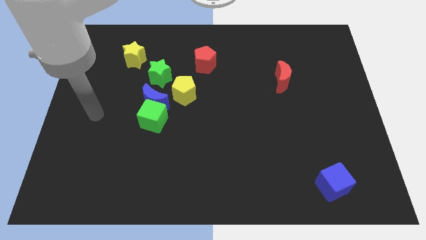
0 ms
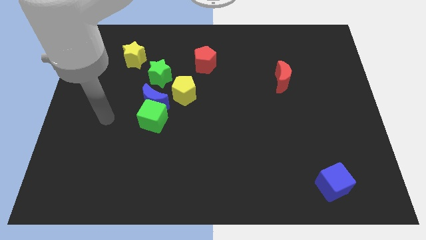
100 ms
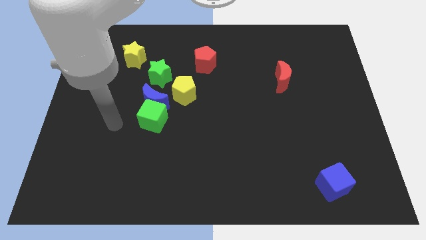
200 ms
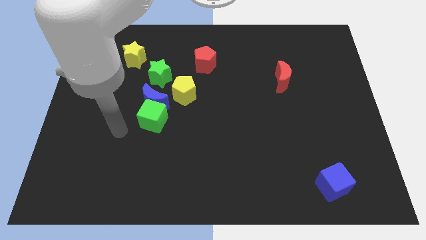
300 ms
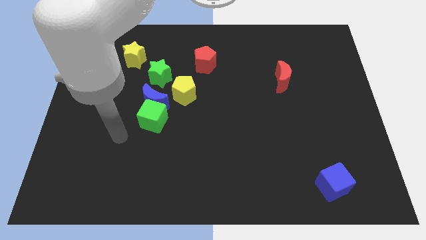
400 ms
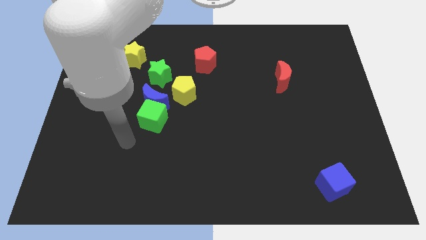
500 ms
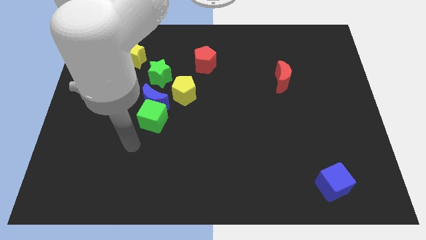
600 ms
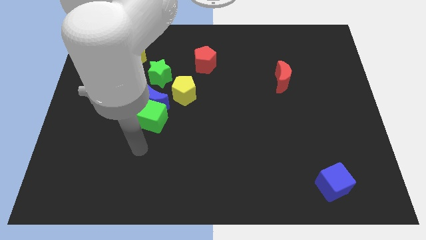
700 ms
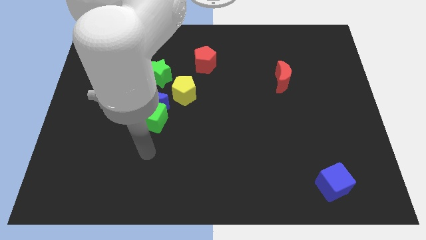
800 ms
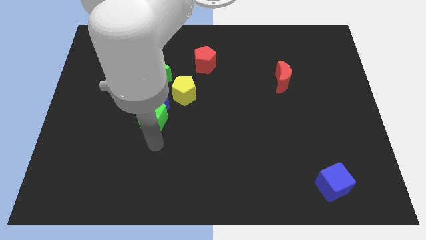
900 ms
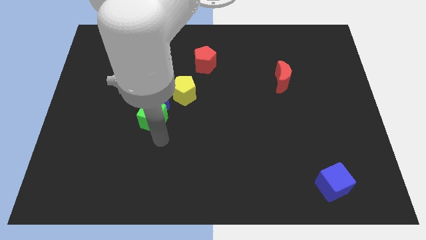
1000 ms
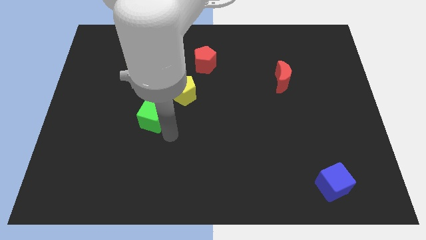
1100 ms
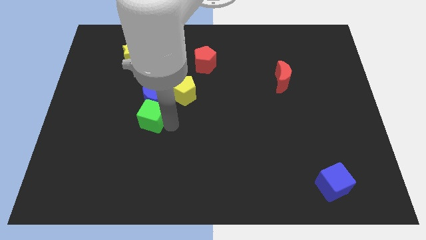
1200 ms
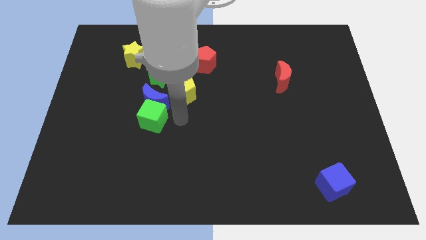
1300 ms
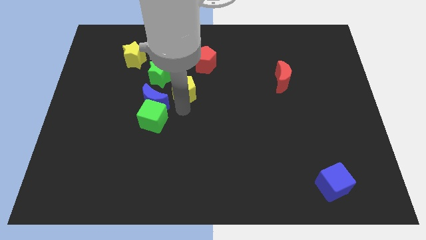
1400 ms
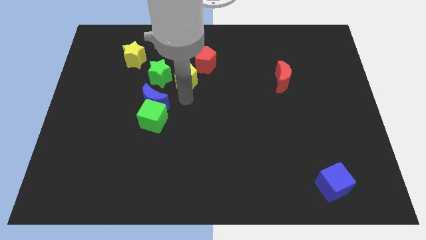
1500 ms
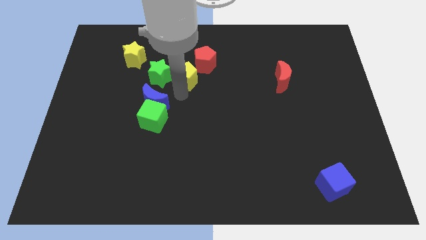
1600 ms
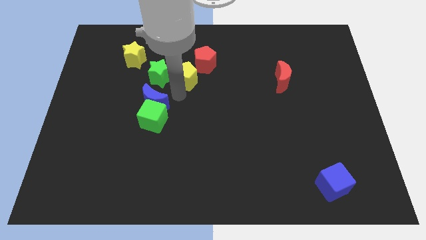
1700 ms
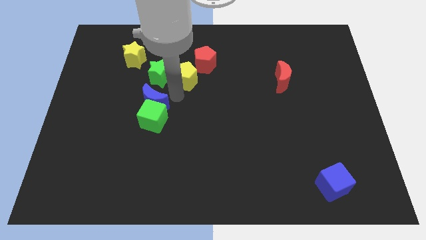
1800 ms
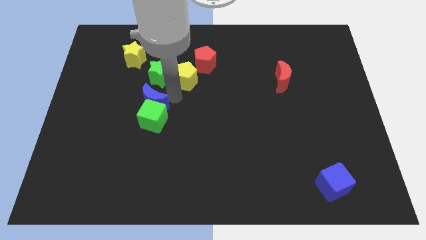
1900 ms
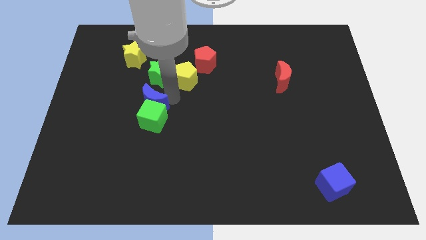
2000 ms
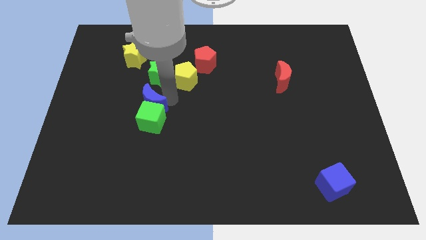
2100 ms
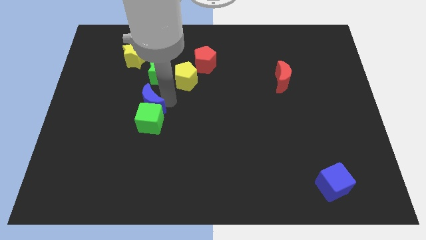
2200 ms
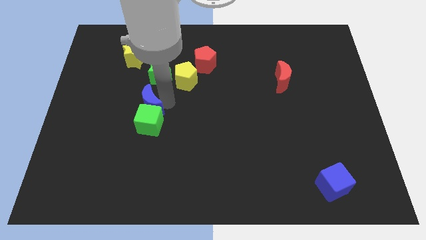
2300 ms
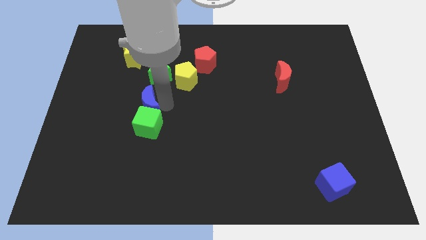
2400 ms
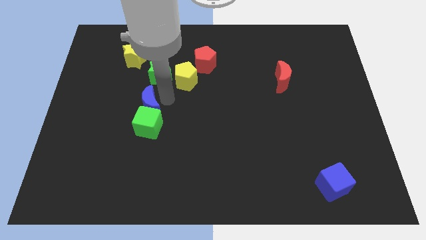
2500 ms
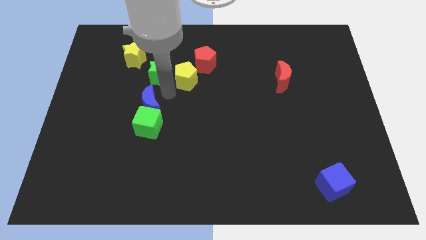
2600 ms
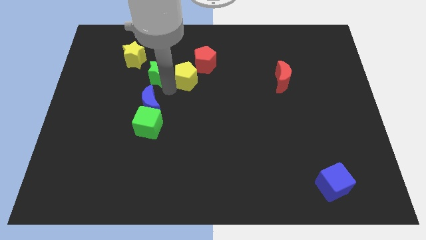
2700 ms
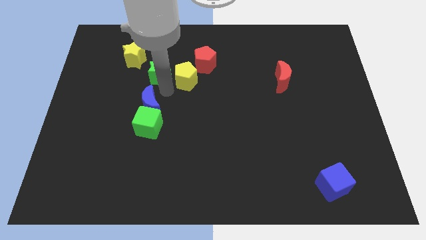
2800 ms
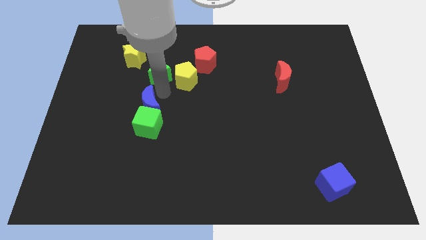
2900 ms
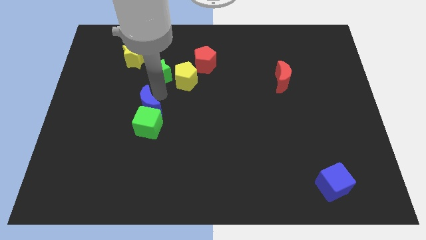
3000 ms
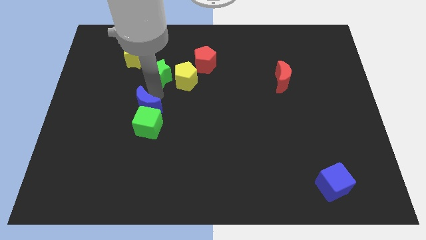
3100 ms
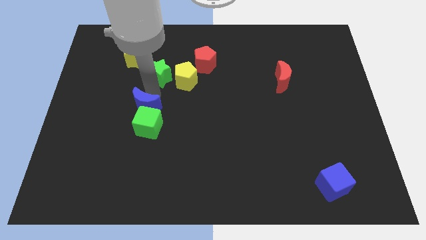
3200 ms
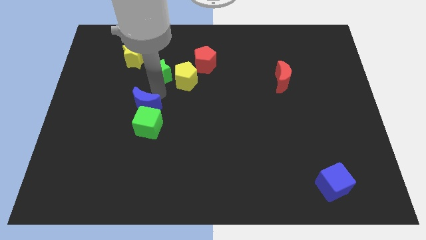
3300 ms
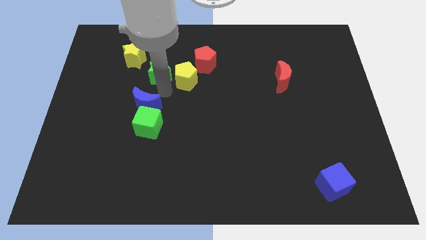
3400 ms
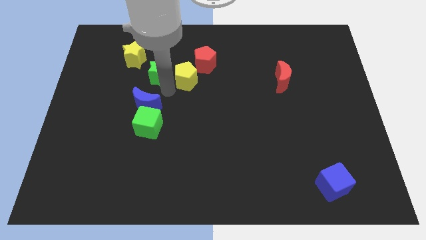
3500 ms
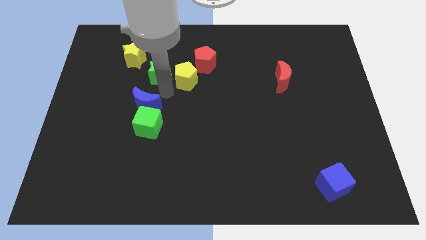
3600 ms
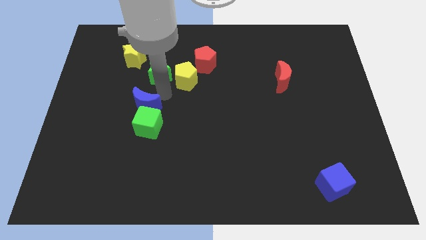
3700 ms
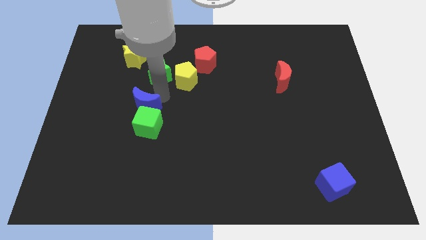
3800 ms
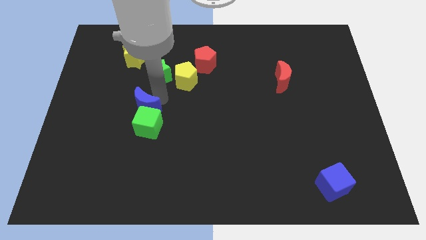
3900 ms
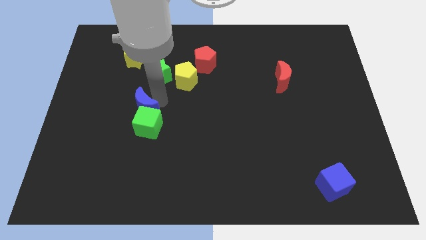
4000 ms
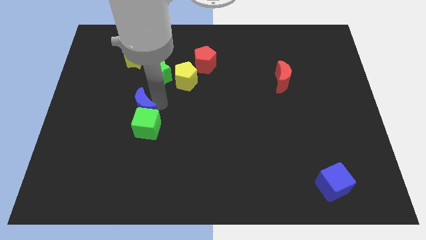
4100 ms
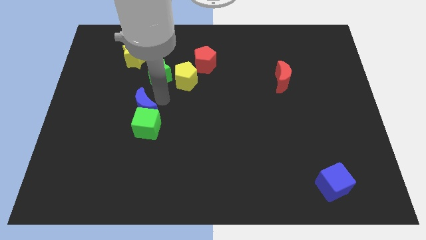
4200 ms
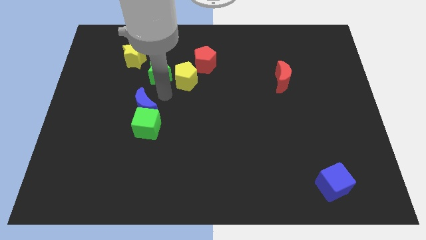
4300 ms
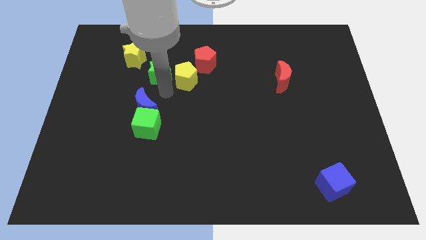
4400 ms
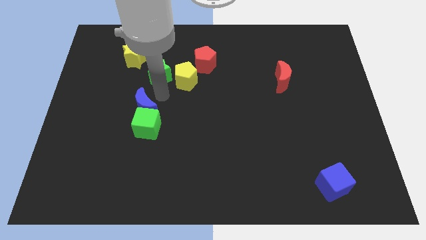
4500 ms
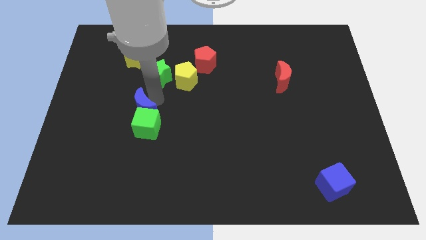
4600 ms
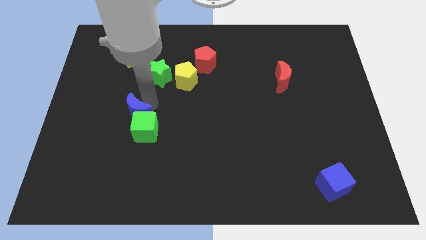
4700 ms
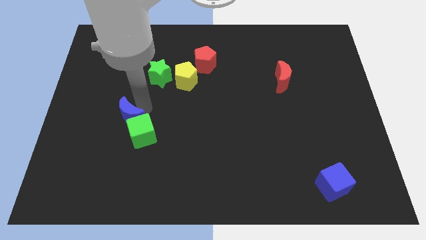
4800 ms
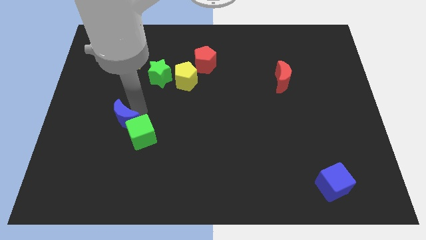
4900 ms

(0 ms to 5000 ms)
move the blue moon away from the green cube, yellow pentagon, and green star

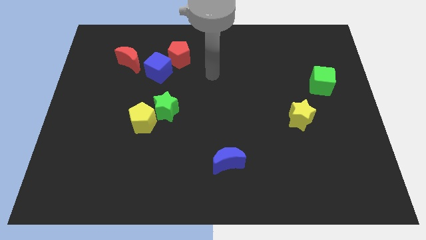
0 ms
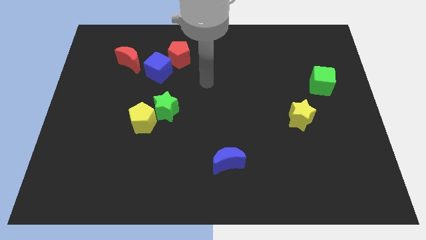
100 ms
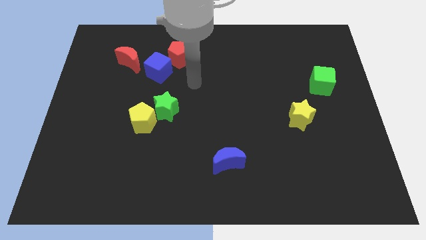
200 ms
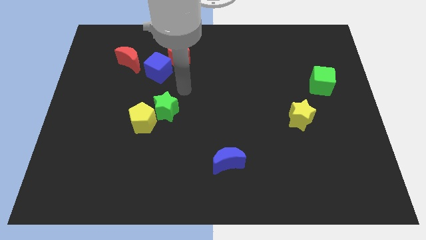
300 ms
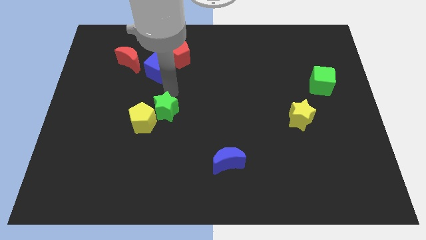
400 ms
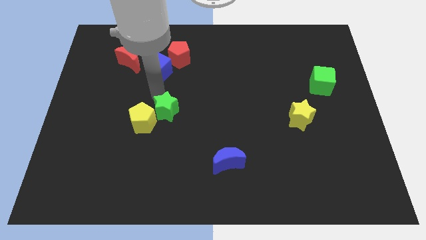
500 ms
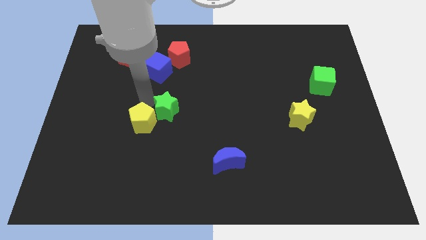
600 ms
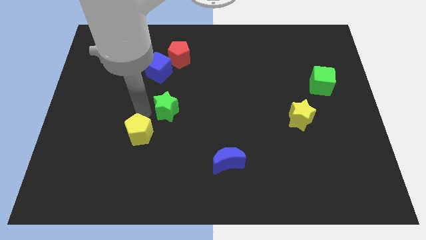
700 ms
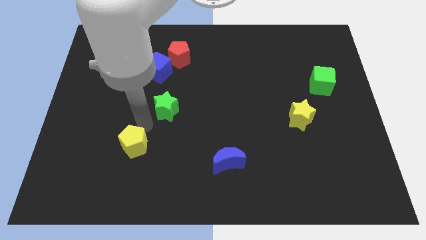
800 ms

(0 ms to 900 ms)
separate the green star from the yellow pentagon

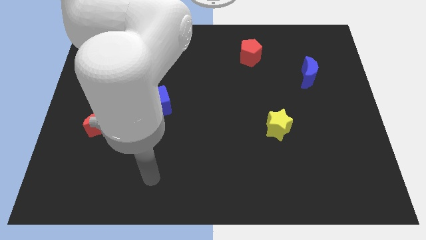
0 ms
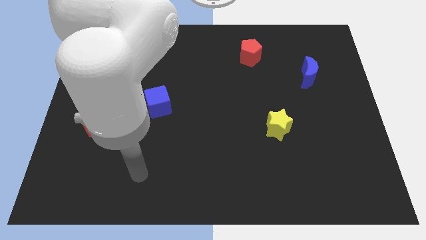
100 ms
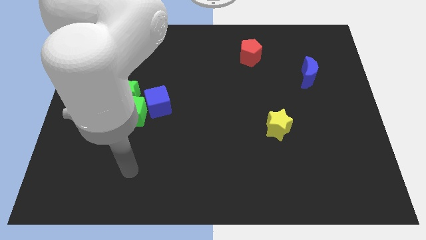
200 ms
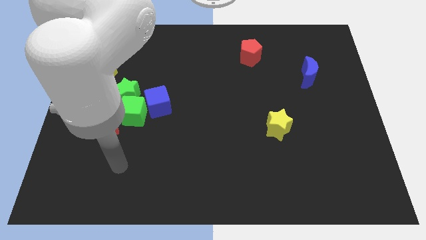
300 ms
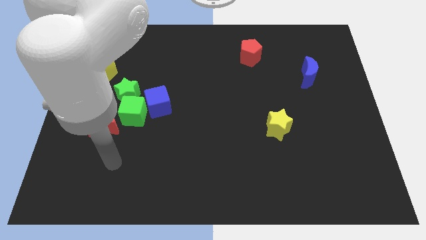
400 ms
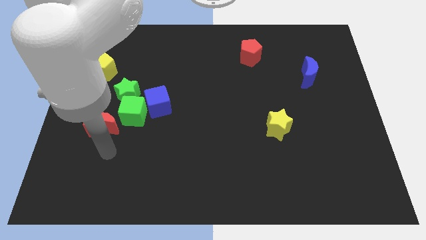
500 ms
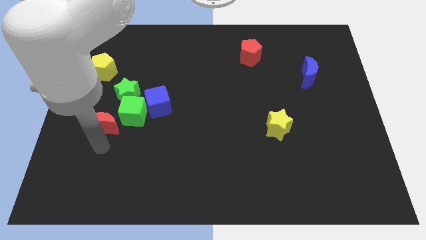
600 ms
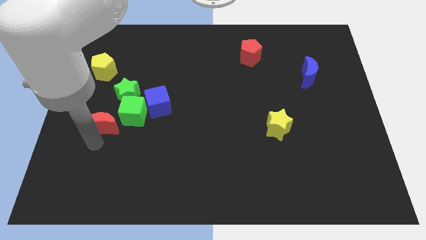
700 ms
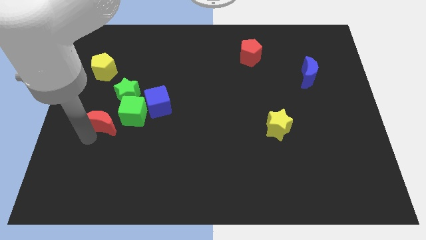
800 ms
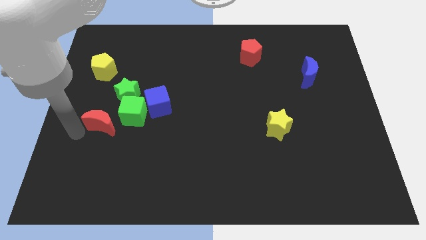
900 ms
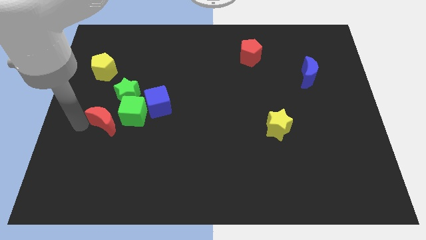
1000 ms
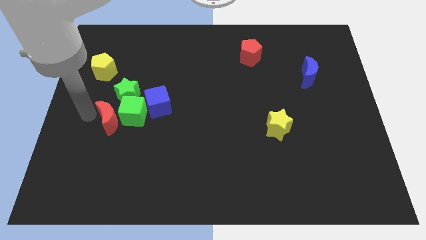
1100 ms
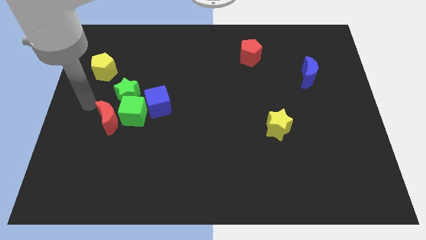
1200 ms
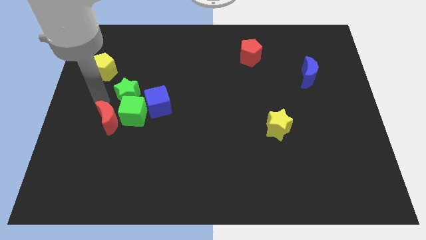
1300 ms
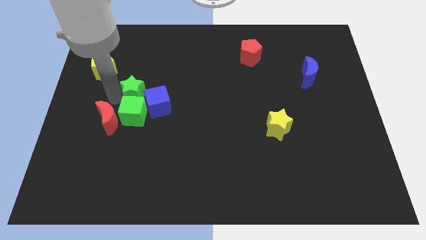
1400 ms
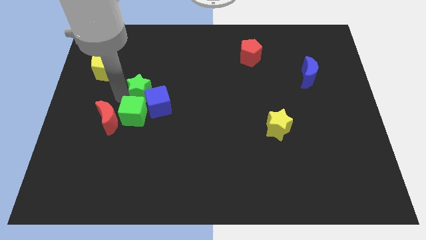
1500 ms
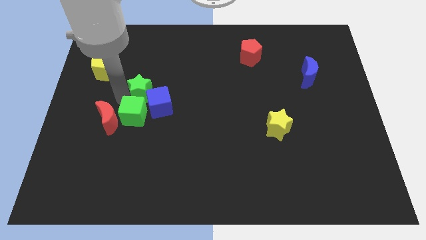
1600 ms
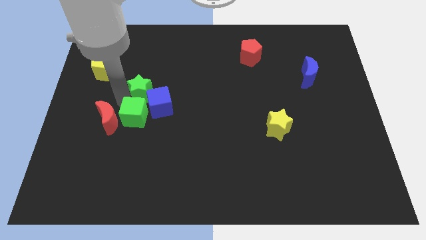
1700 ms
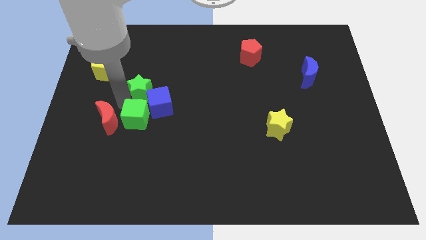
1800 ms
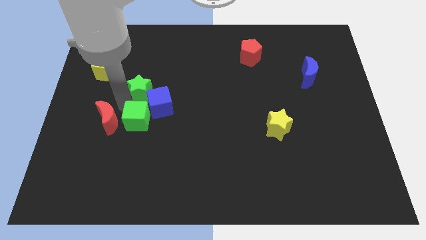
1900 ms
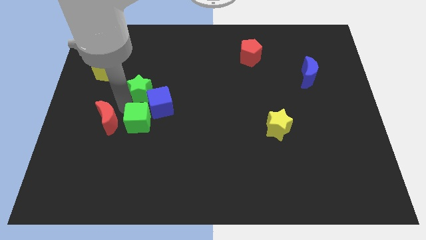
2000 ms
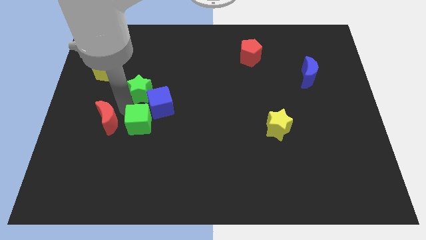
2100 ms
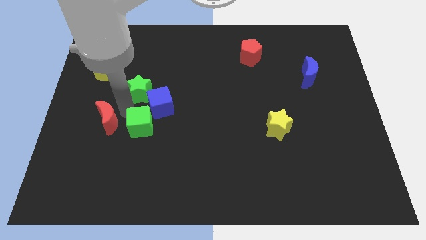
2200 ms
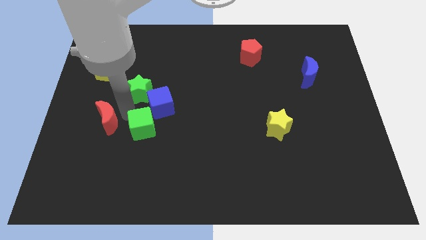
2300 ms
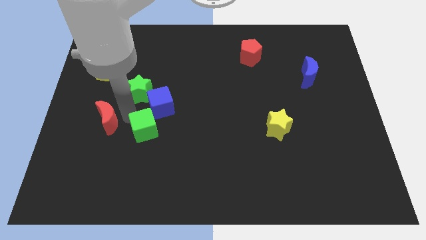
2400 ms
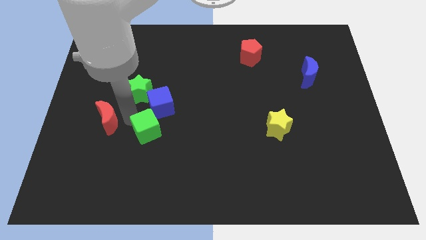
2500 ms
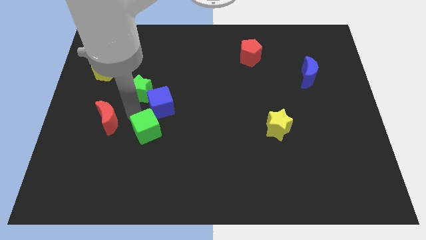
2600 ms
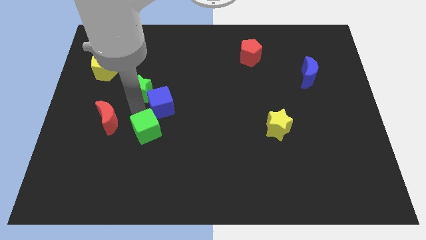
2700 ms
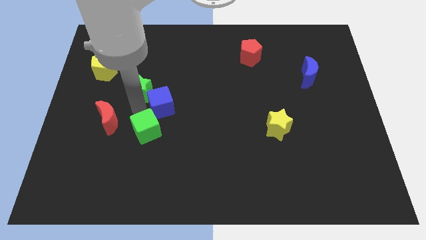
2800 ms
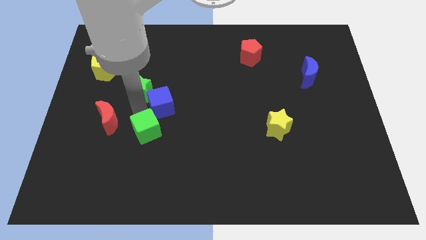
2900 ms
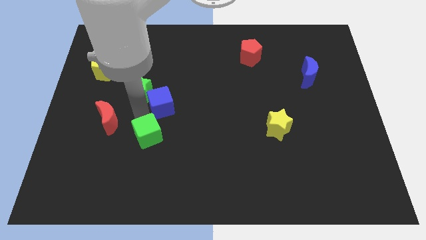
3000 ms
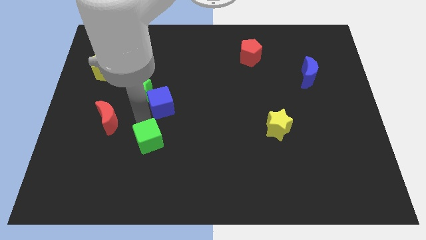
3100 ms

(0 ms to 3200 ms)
pull the green cube apart from the group

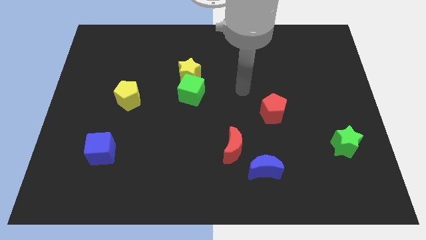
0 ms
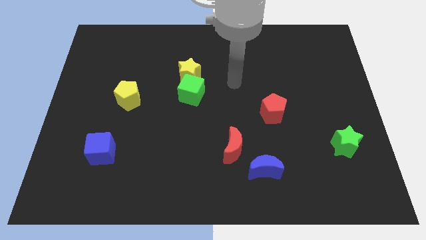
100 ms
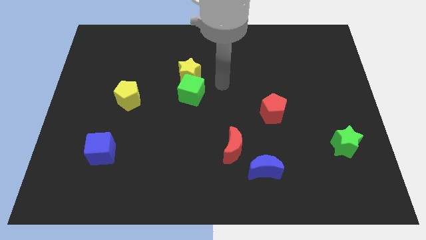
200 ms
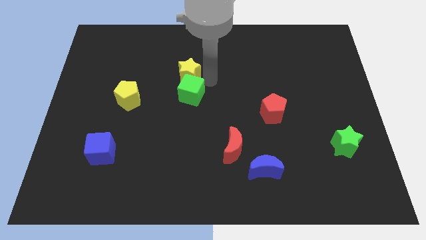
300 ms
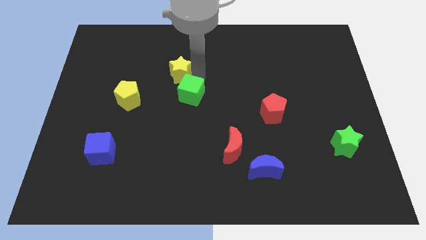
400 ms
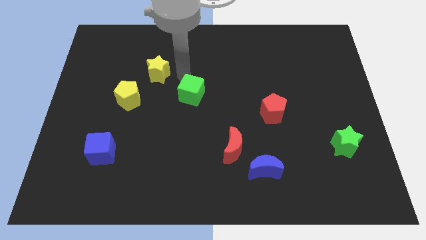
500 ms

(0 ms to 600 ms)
pull the green cube apart from the yellow star
